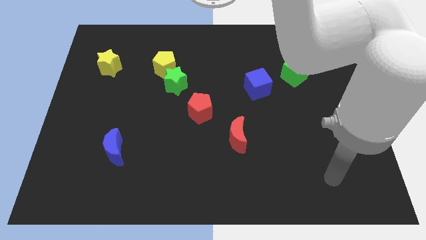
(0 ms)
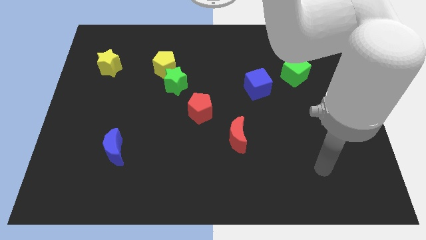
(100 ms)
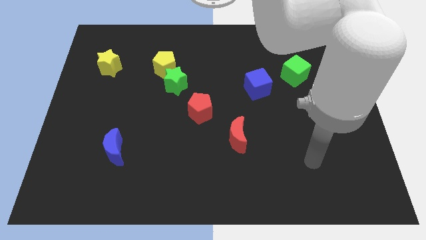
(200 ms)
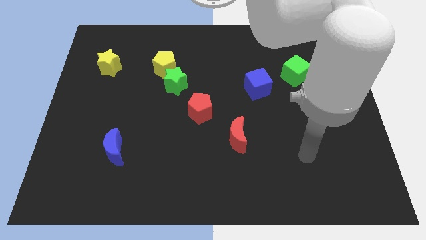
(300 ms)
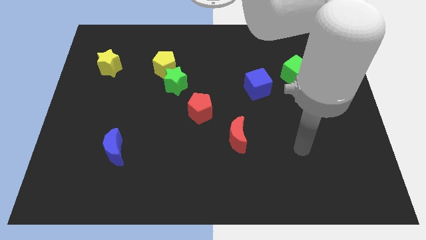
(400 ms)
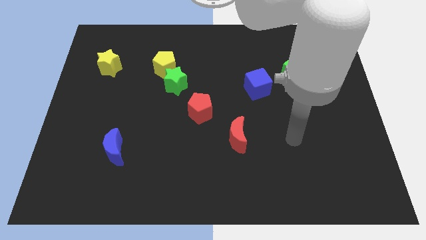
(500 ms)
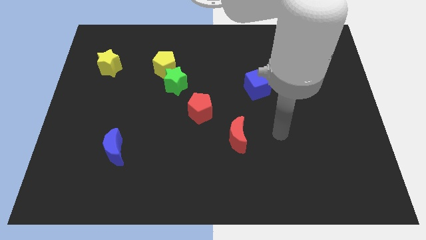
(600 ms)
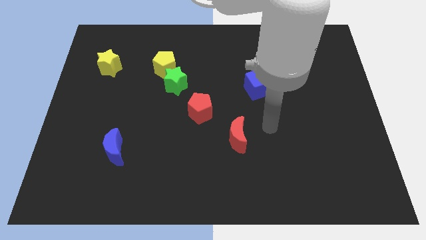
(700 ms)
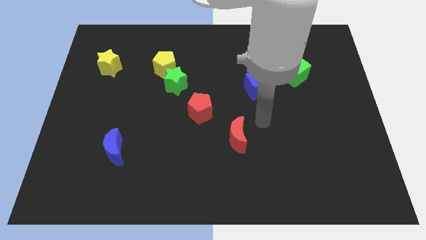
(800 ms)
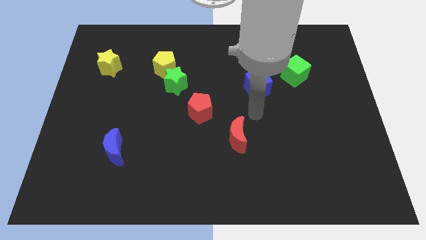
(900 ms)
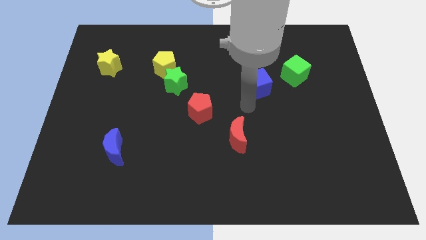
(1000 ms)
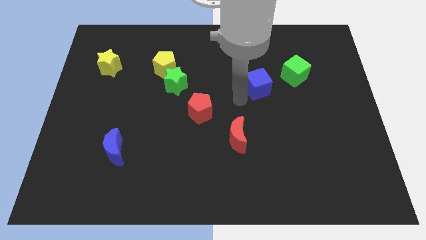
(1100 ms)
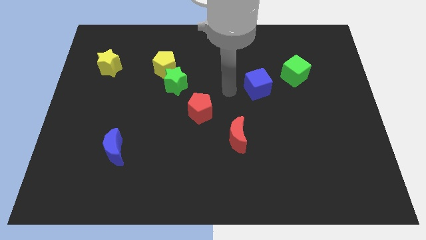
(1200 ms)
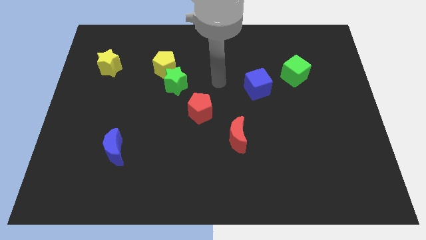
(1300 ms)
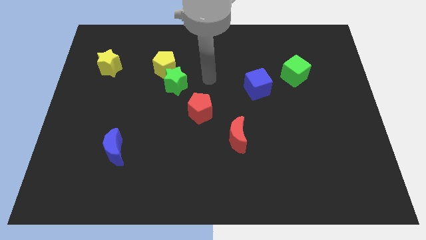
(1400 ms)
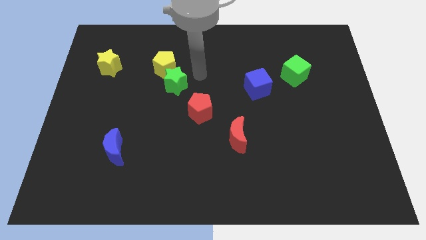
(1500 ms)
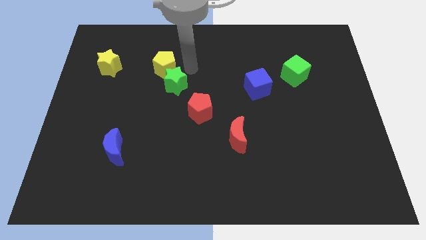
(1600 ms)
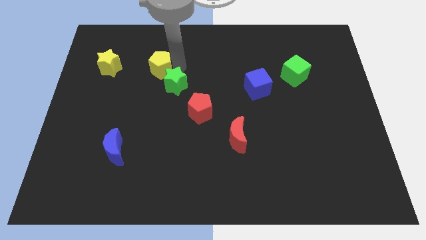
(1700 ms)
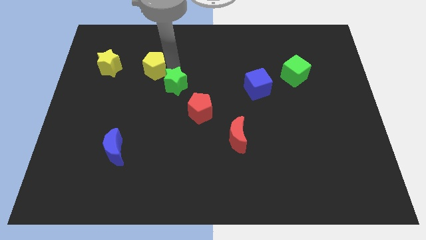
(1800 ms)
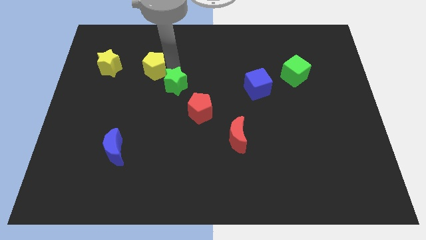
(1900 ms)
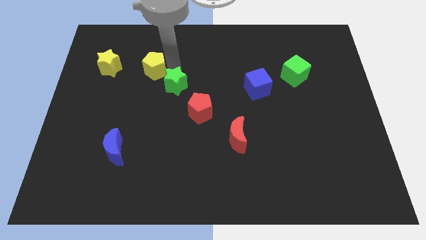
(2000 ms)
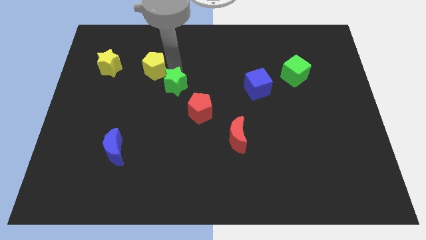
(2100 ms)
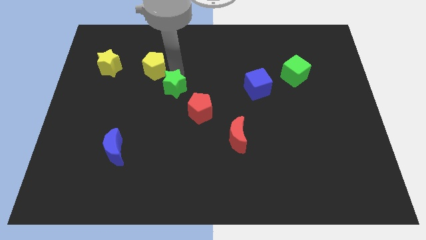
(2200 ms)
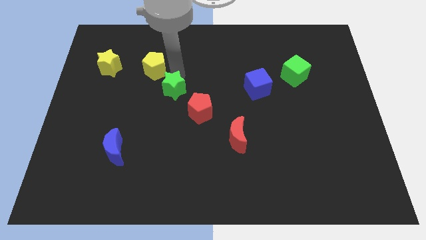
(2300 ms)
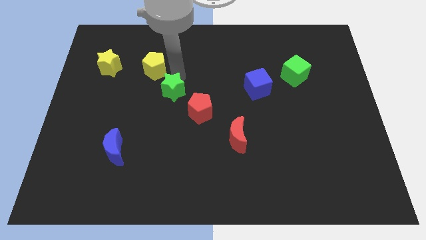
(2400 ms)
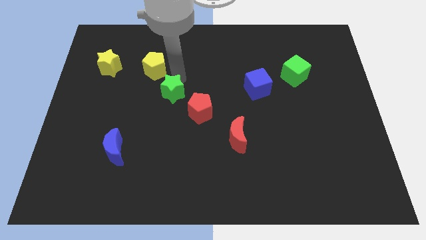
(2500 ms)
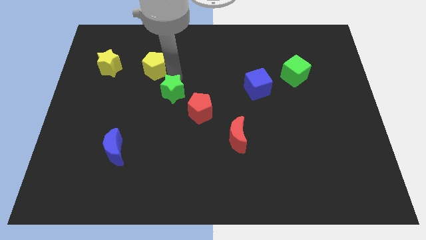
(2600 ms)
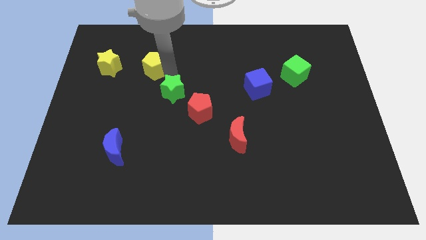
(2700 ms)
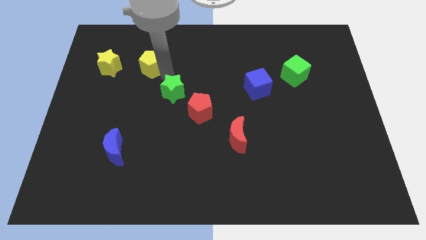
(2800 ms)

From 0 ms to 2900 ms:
move the green star away from the yellow pentagon

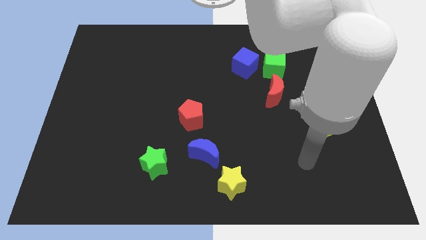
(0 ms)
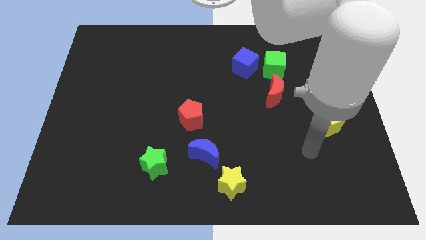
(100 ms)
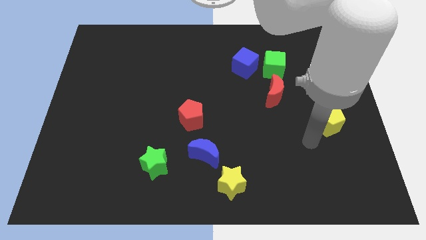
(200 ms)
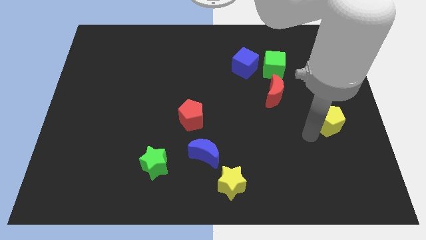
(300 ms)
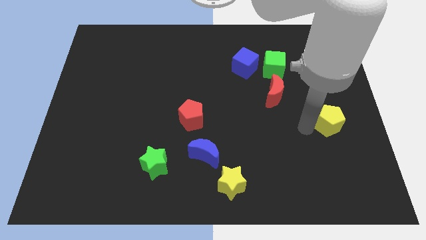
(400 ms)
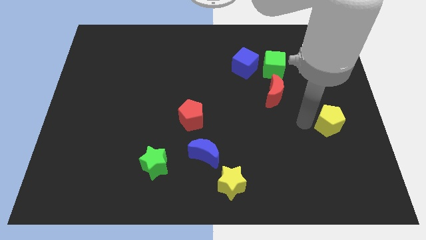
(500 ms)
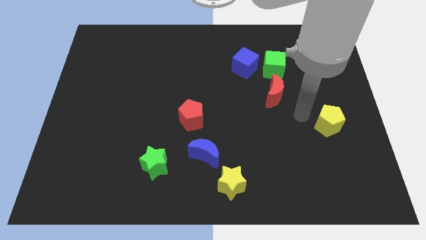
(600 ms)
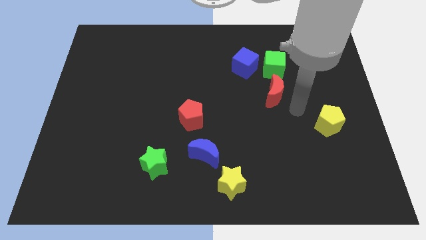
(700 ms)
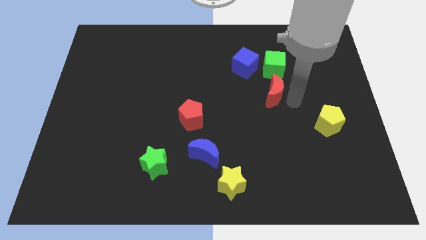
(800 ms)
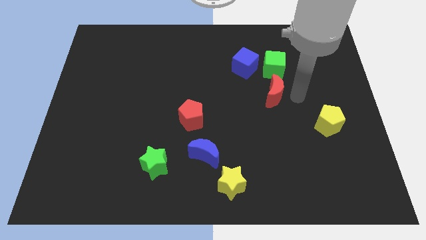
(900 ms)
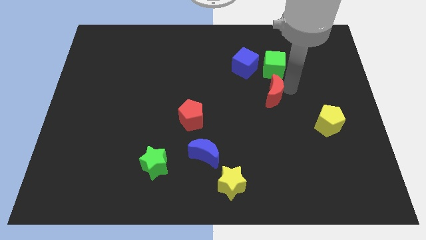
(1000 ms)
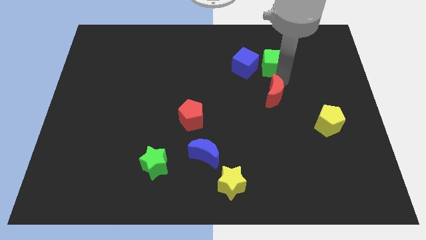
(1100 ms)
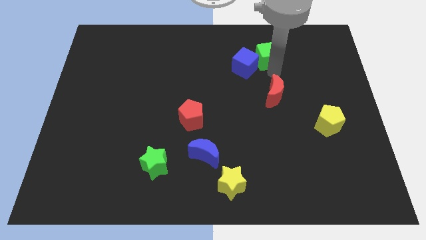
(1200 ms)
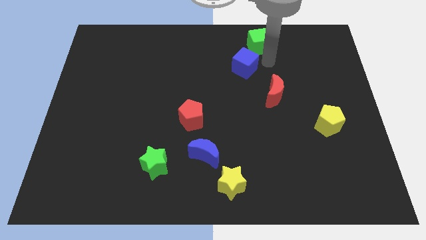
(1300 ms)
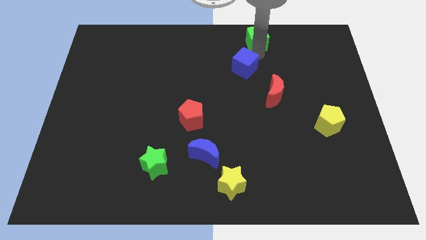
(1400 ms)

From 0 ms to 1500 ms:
move the blue cube away from the green cube

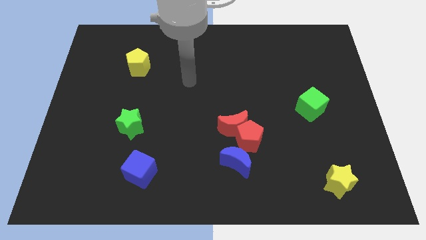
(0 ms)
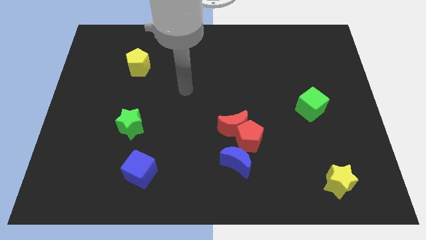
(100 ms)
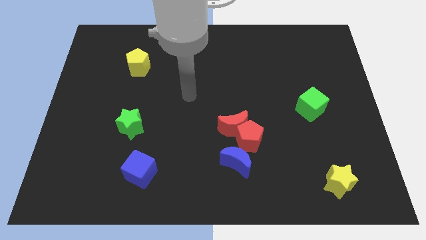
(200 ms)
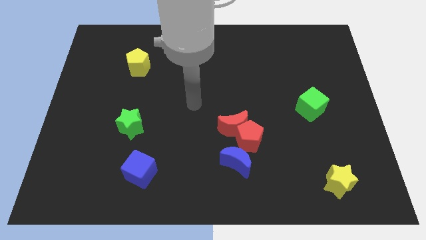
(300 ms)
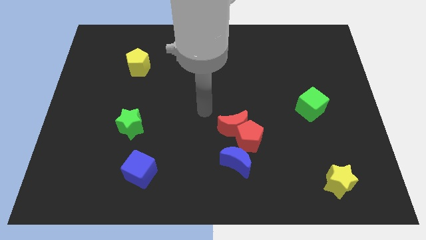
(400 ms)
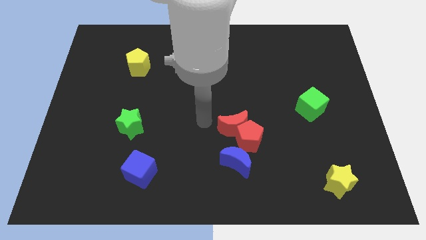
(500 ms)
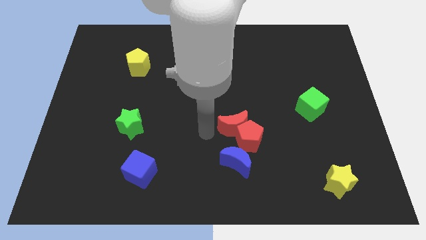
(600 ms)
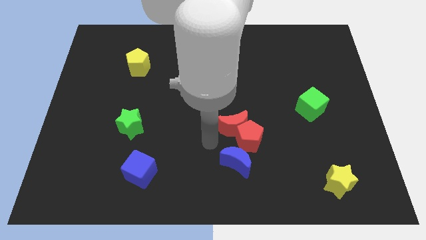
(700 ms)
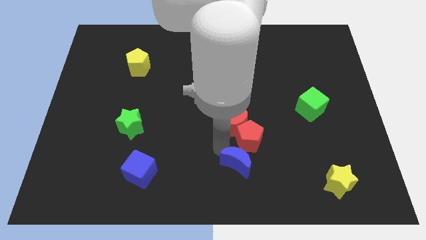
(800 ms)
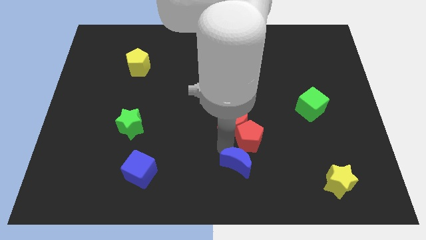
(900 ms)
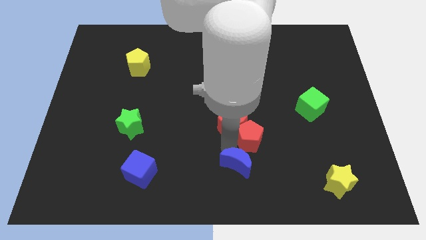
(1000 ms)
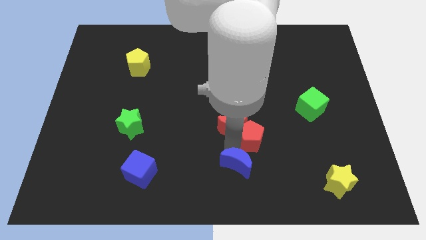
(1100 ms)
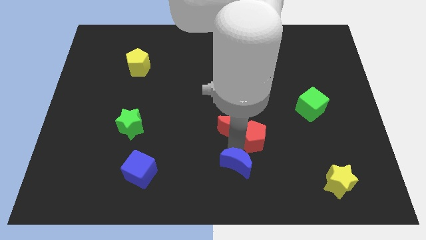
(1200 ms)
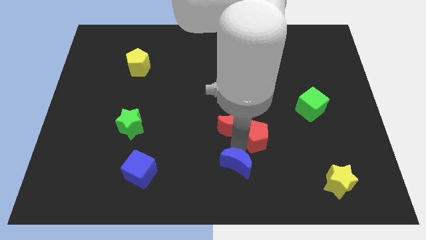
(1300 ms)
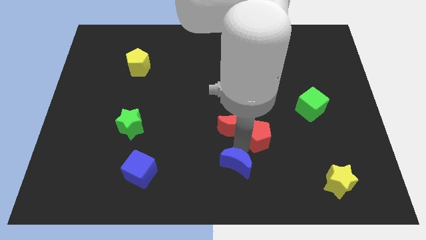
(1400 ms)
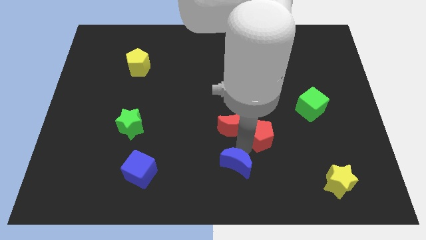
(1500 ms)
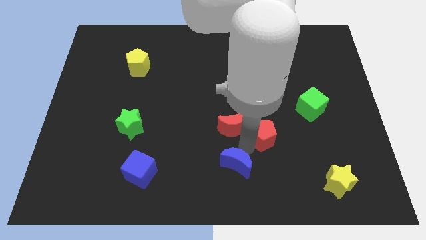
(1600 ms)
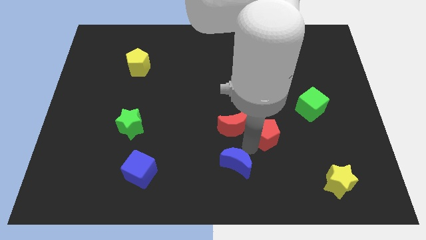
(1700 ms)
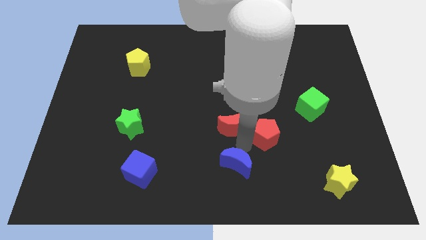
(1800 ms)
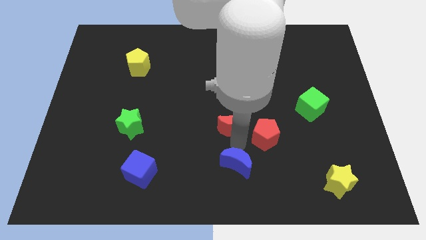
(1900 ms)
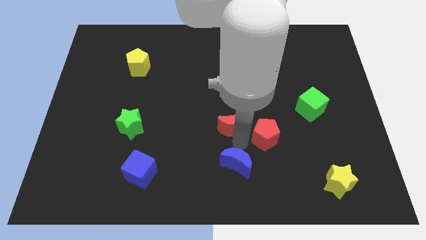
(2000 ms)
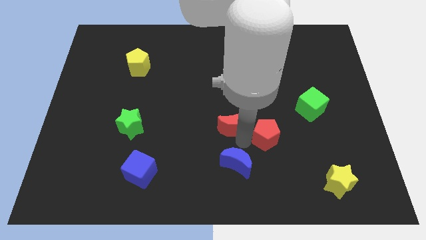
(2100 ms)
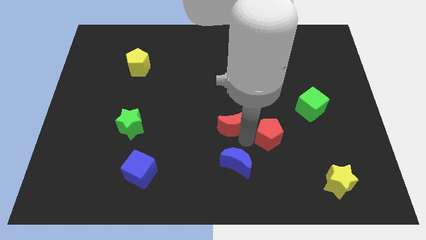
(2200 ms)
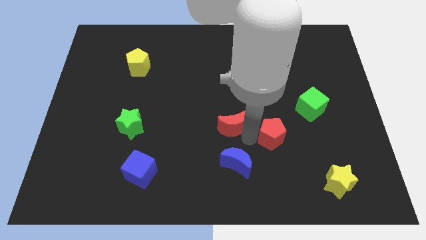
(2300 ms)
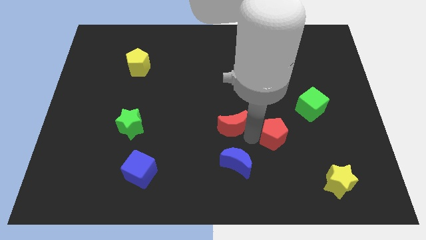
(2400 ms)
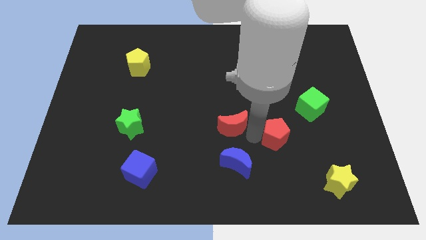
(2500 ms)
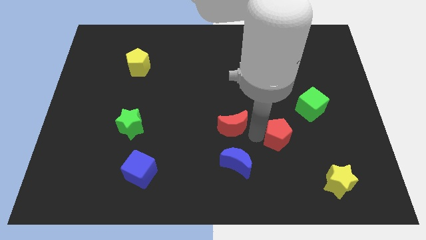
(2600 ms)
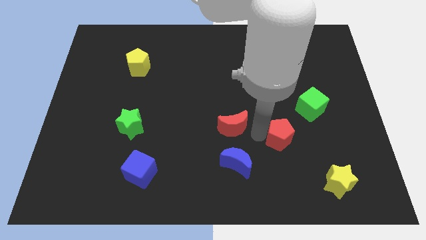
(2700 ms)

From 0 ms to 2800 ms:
pull the red pentagon apart from the red moon and blue moon

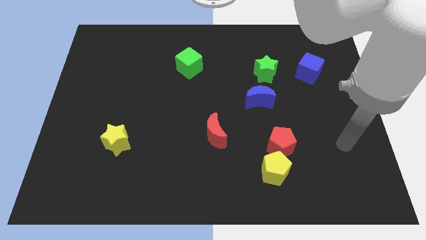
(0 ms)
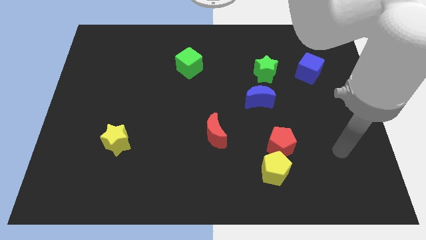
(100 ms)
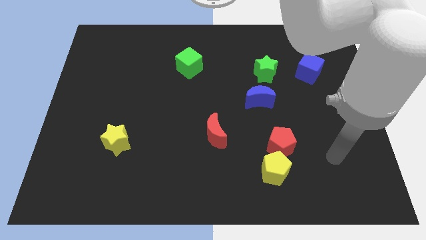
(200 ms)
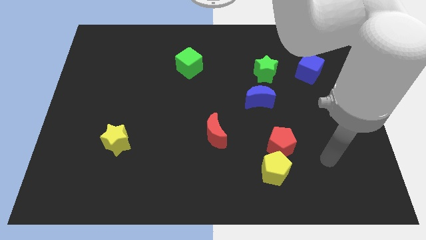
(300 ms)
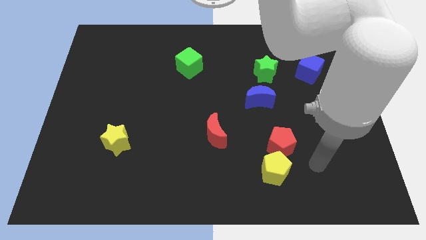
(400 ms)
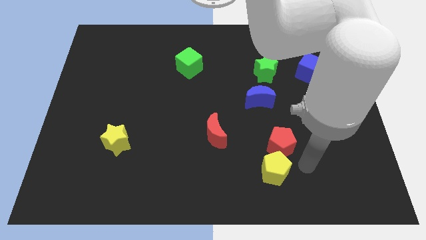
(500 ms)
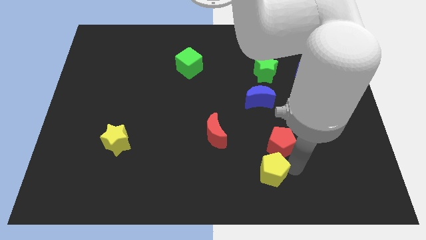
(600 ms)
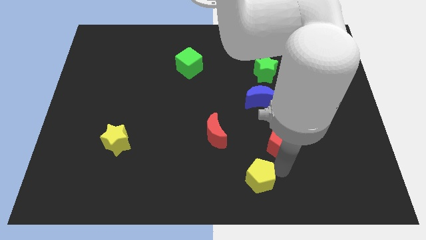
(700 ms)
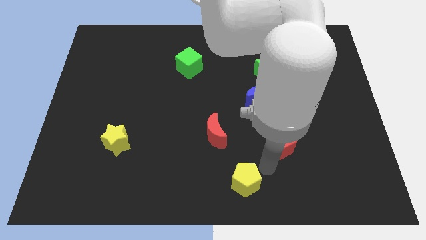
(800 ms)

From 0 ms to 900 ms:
pull the red pentagon apart from the yellow pentagon

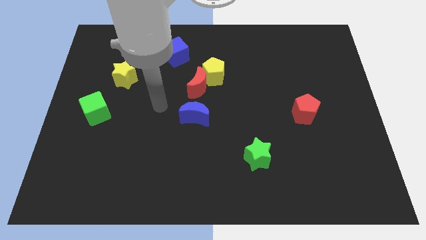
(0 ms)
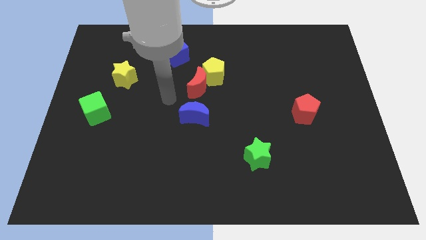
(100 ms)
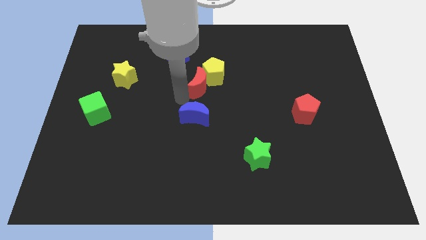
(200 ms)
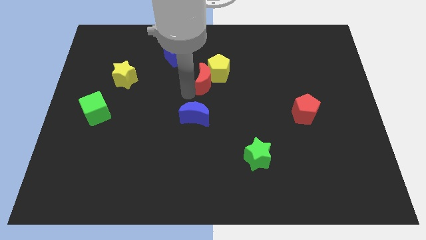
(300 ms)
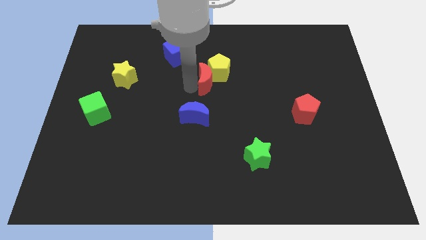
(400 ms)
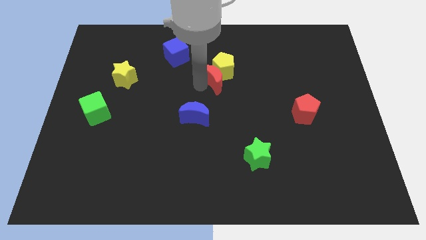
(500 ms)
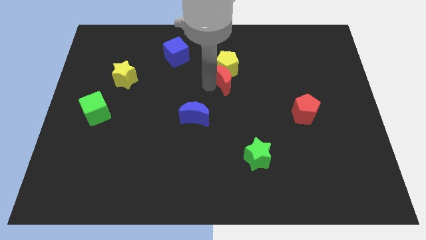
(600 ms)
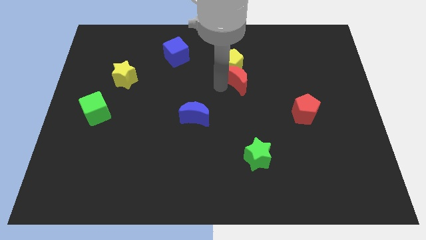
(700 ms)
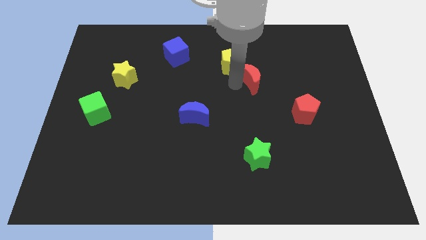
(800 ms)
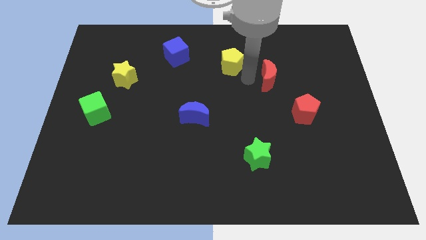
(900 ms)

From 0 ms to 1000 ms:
pull the yellow pentagon apart from the red moon

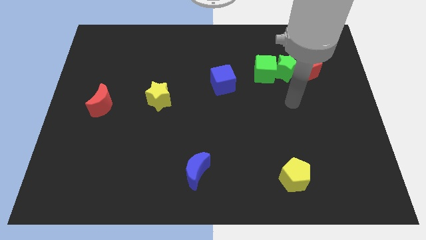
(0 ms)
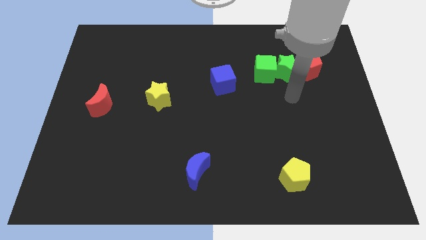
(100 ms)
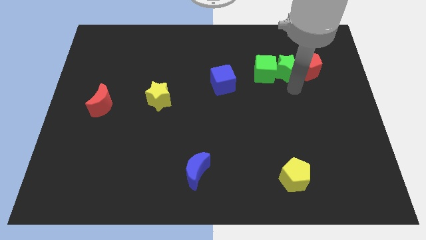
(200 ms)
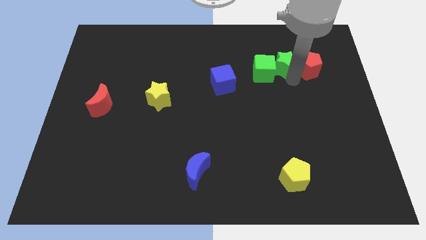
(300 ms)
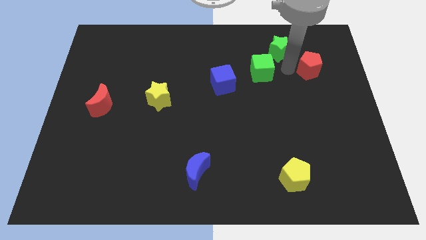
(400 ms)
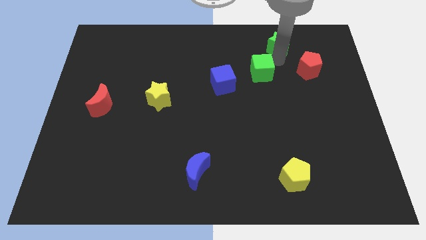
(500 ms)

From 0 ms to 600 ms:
pull the green cube apart from the green star
